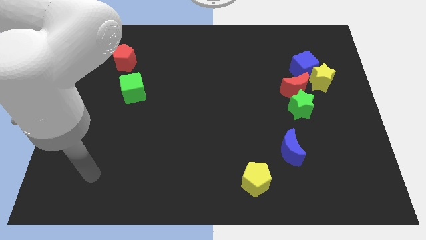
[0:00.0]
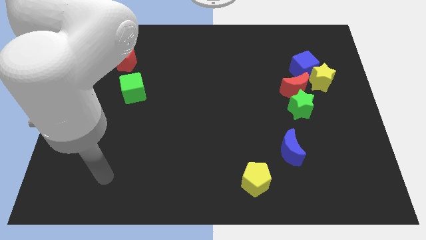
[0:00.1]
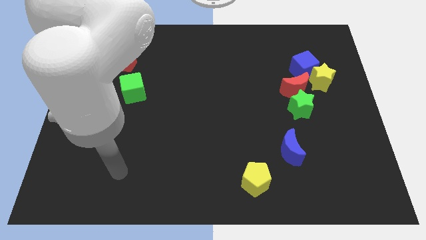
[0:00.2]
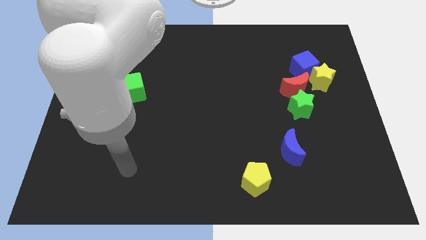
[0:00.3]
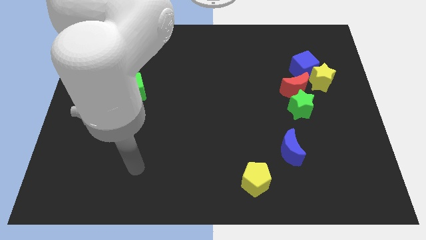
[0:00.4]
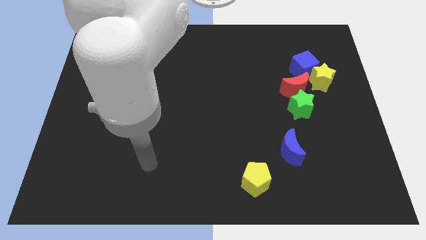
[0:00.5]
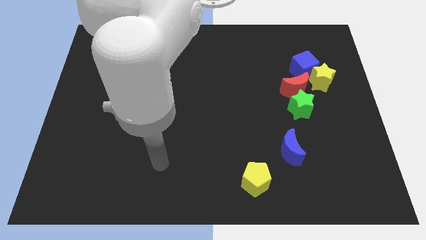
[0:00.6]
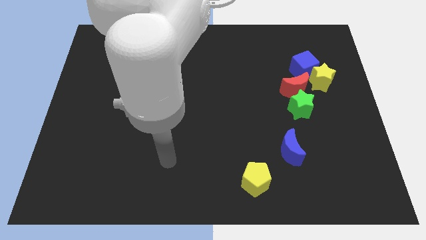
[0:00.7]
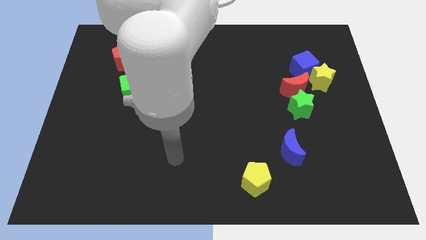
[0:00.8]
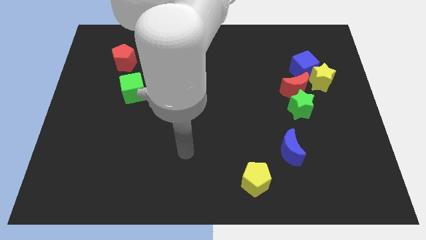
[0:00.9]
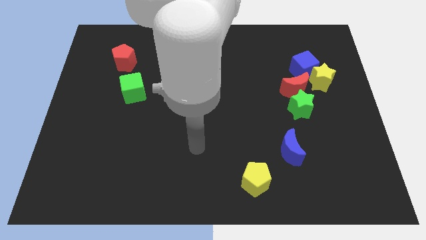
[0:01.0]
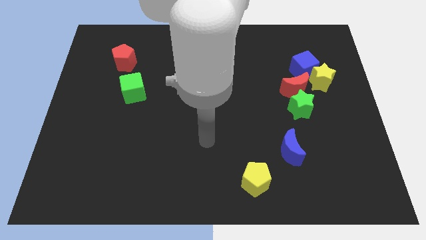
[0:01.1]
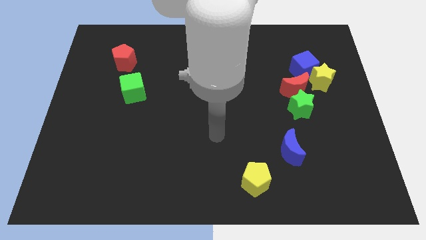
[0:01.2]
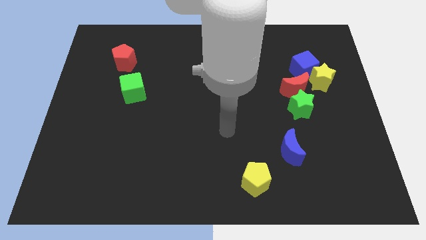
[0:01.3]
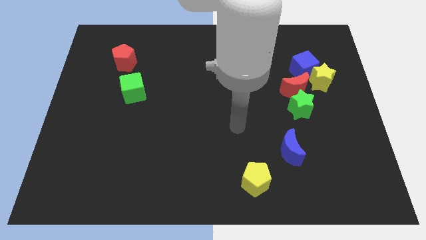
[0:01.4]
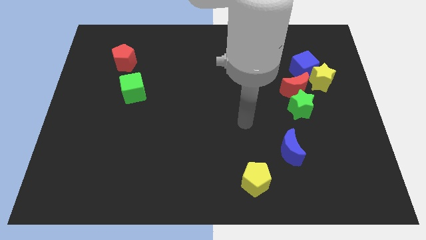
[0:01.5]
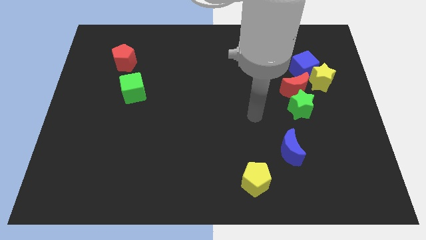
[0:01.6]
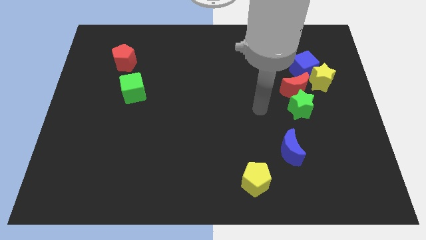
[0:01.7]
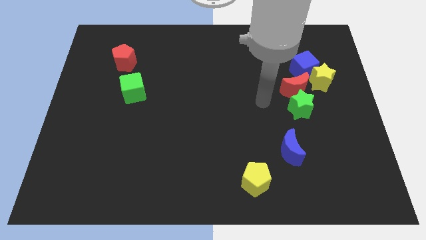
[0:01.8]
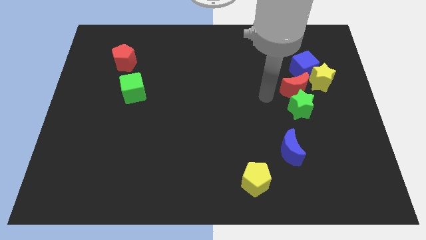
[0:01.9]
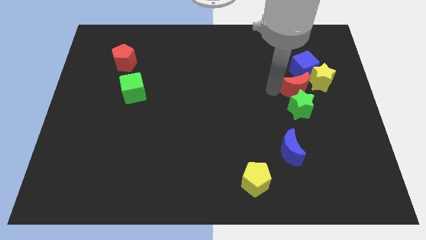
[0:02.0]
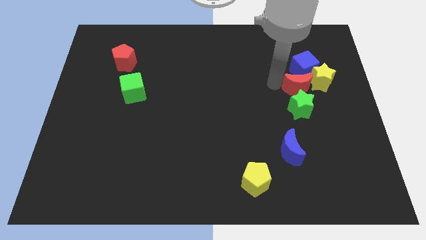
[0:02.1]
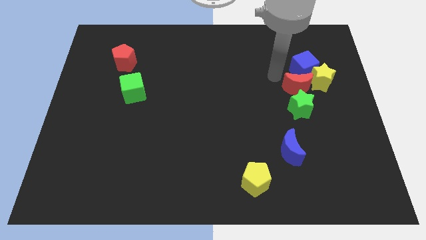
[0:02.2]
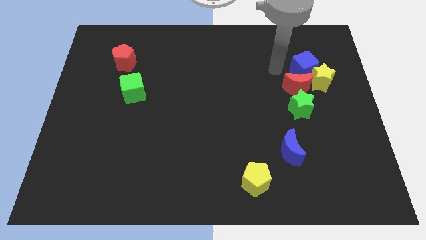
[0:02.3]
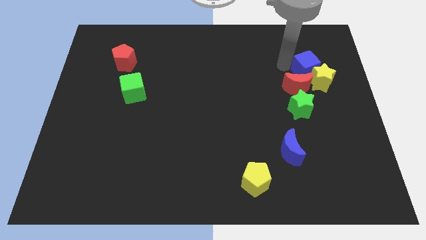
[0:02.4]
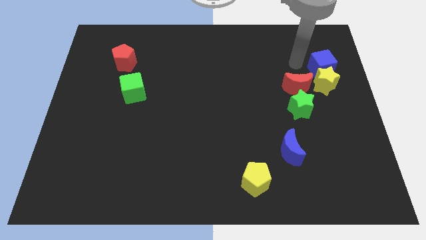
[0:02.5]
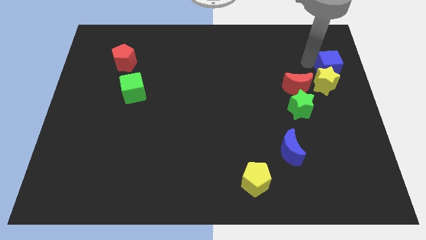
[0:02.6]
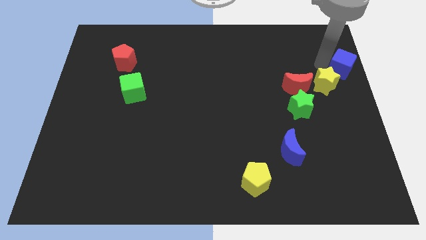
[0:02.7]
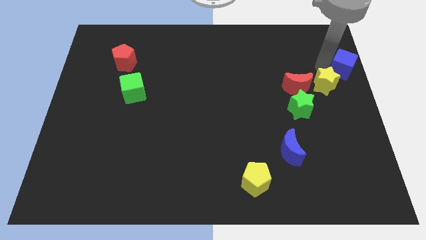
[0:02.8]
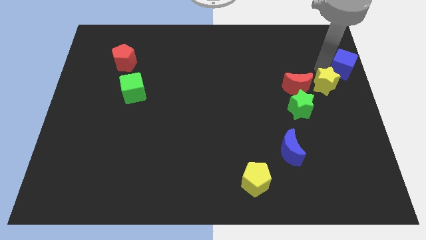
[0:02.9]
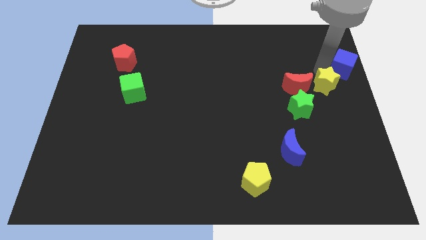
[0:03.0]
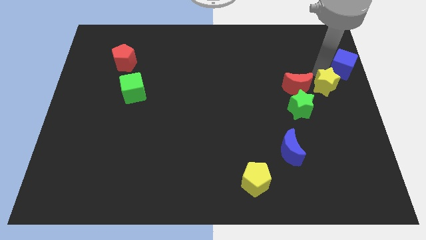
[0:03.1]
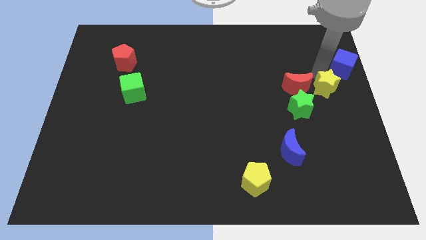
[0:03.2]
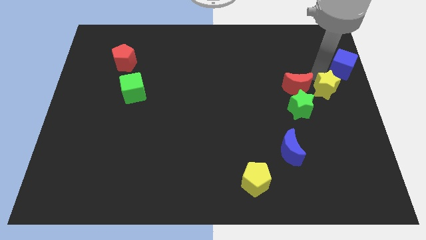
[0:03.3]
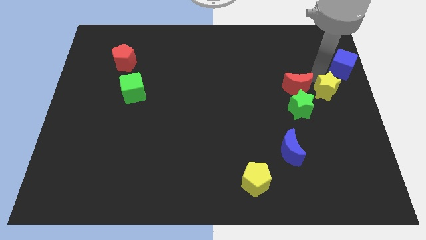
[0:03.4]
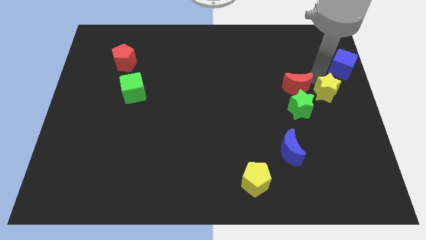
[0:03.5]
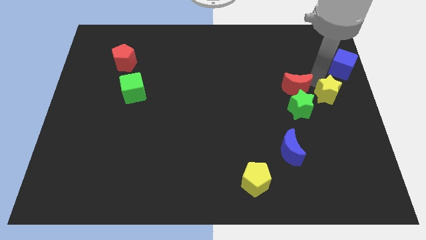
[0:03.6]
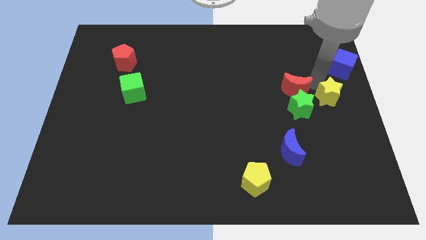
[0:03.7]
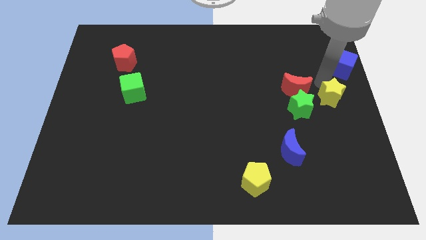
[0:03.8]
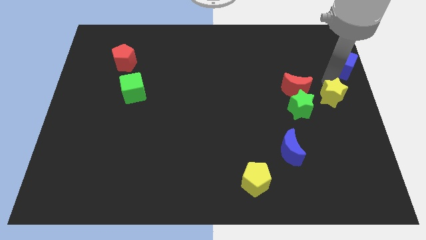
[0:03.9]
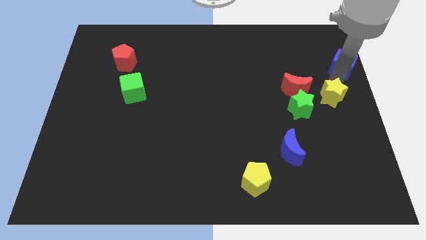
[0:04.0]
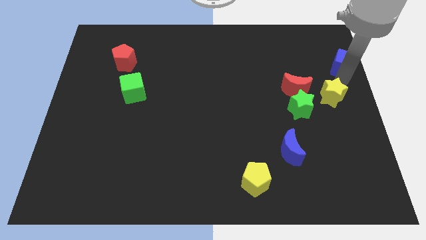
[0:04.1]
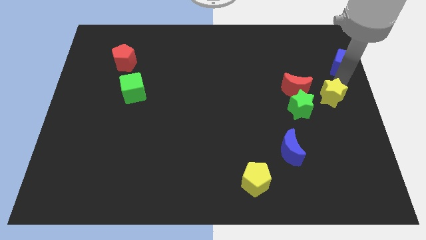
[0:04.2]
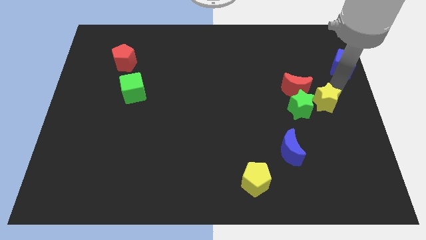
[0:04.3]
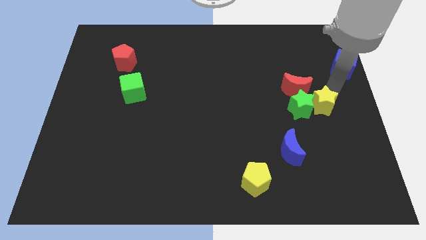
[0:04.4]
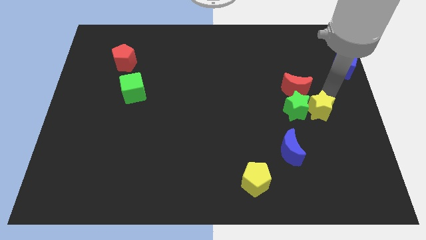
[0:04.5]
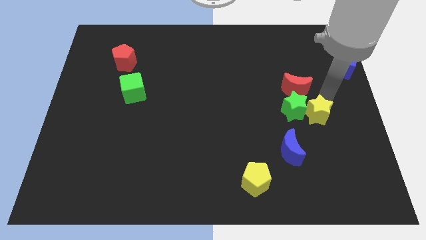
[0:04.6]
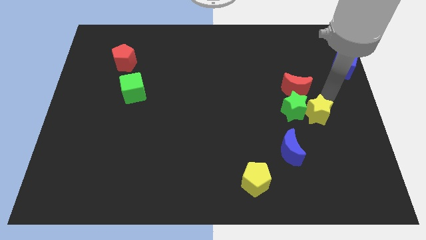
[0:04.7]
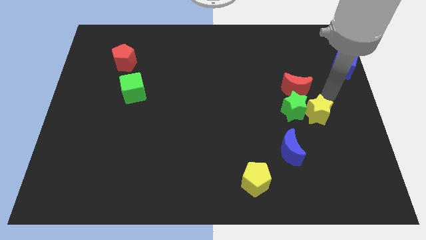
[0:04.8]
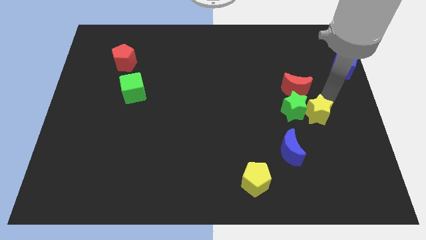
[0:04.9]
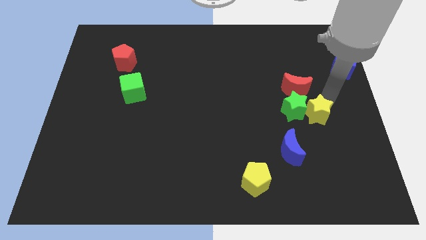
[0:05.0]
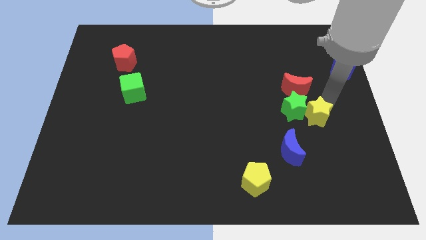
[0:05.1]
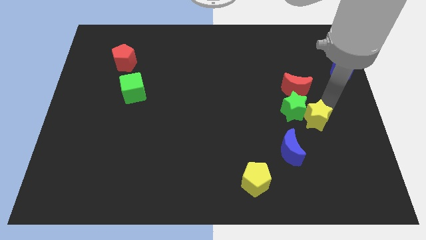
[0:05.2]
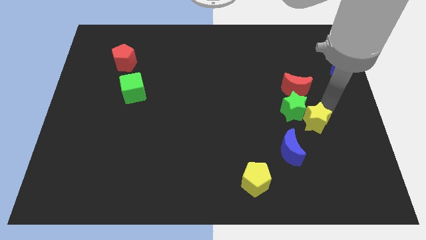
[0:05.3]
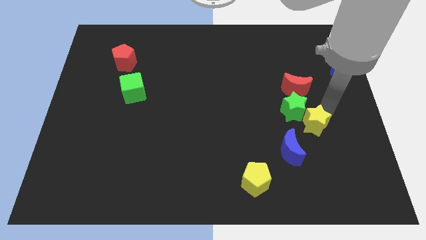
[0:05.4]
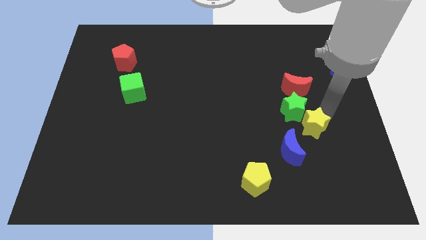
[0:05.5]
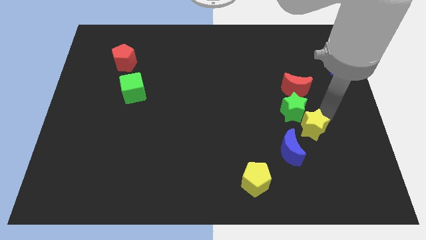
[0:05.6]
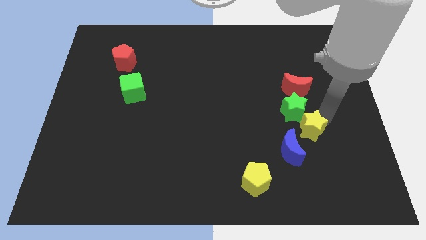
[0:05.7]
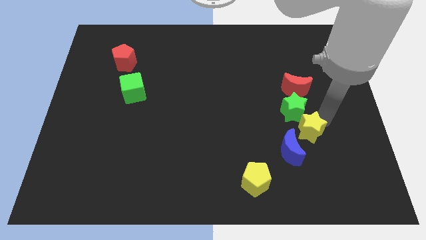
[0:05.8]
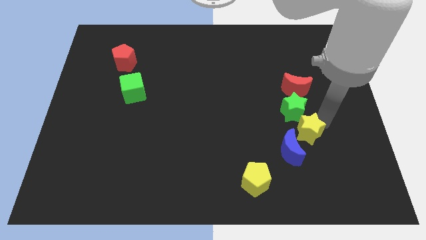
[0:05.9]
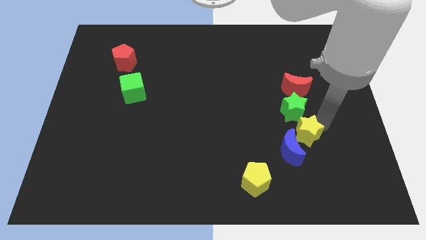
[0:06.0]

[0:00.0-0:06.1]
move the yellow star close to the blue moon

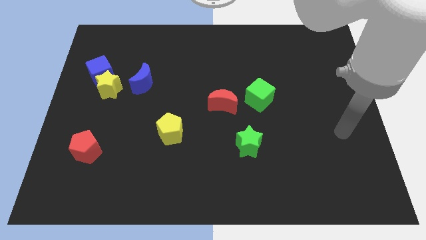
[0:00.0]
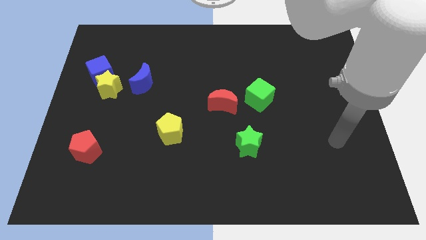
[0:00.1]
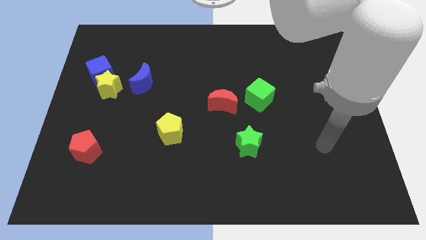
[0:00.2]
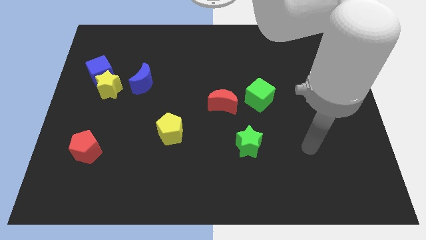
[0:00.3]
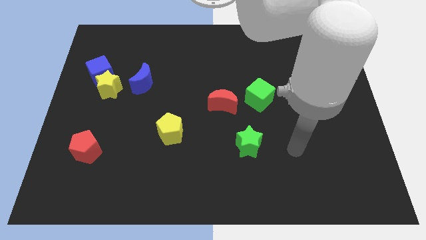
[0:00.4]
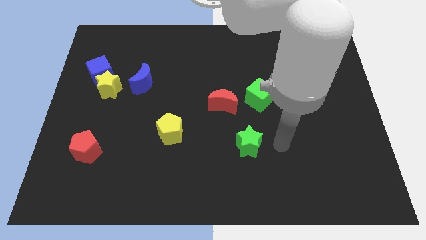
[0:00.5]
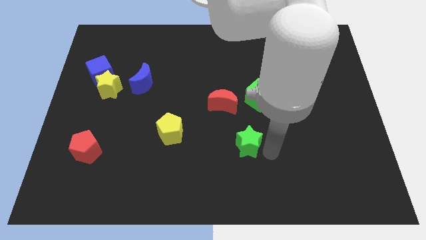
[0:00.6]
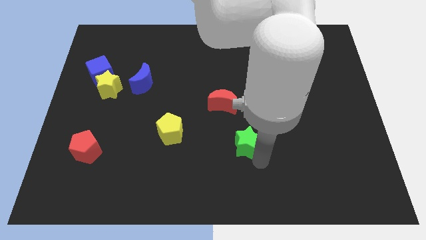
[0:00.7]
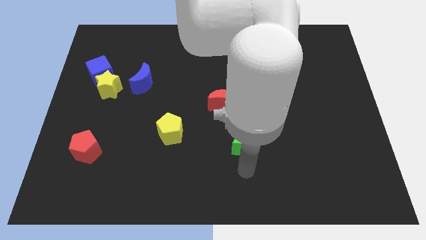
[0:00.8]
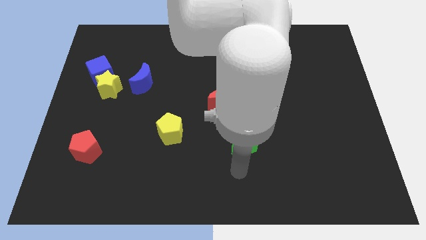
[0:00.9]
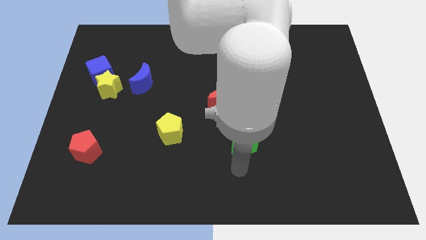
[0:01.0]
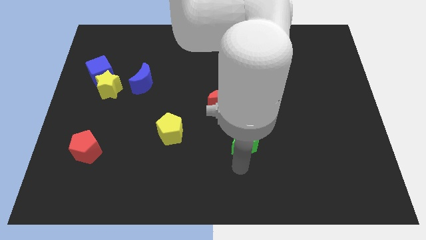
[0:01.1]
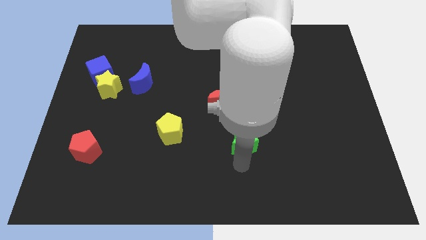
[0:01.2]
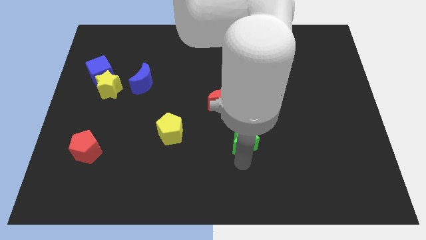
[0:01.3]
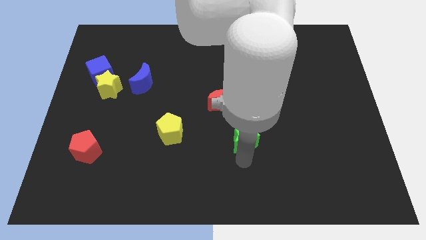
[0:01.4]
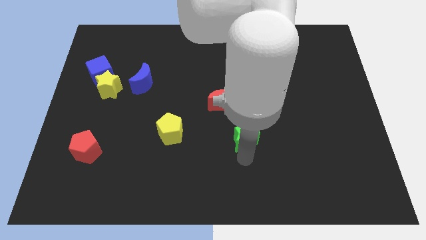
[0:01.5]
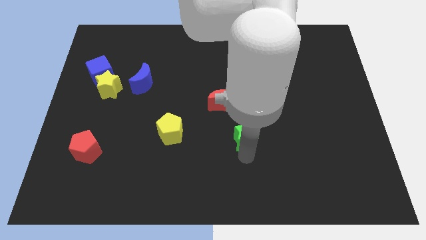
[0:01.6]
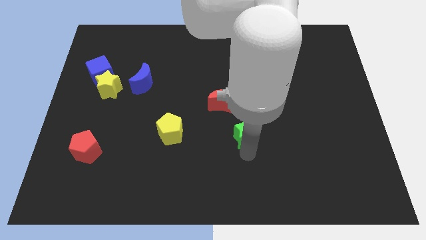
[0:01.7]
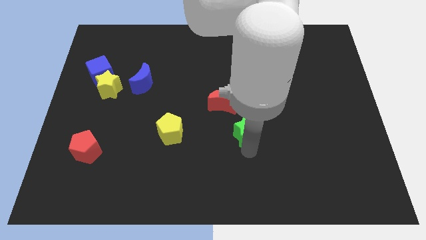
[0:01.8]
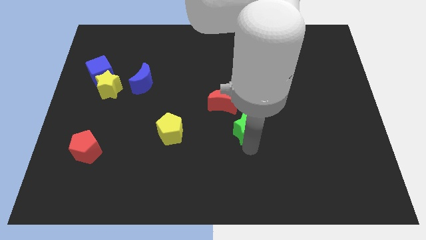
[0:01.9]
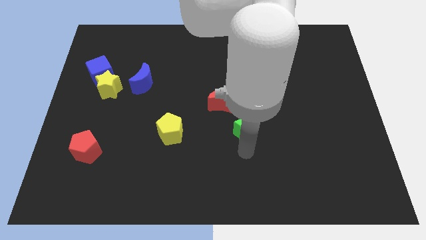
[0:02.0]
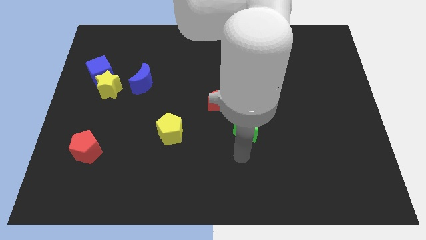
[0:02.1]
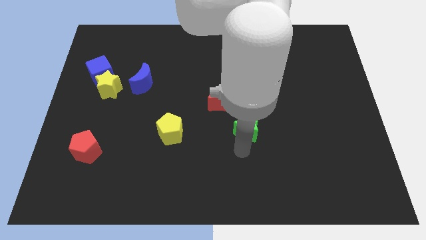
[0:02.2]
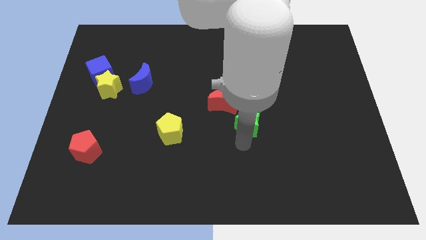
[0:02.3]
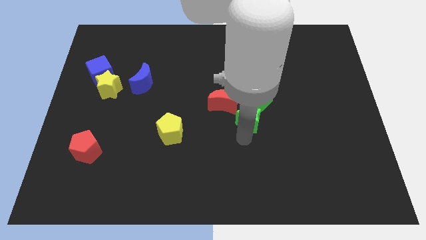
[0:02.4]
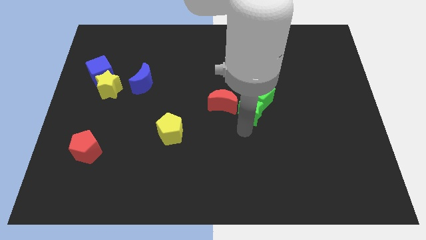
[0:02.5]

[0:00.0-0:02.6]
slide the green star close to the green cube
